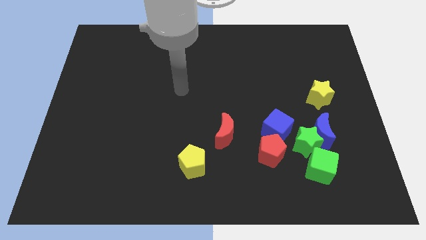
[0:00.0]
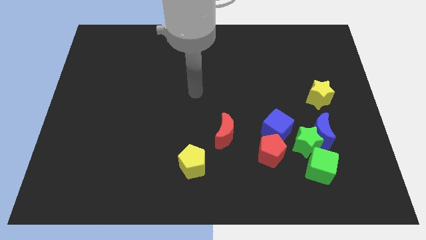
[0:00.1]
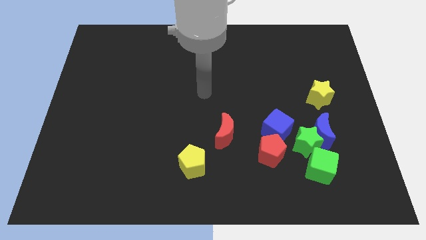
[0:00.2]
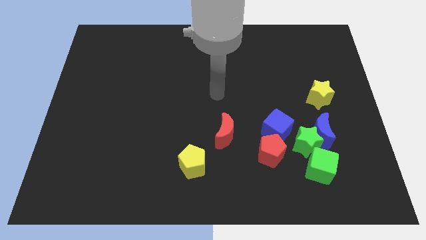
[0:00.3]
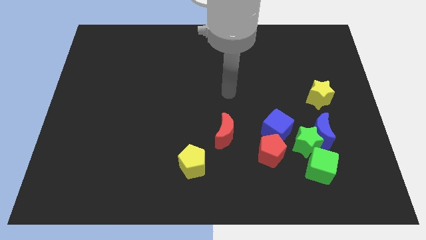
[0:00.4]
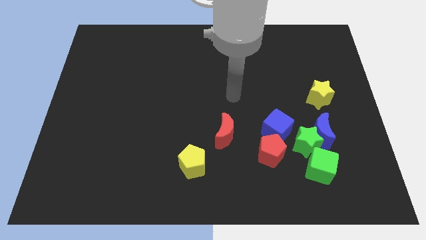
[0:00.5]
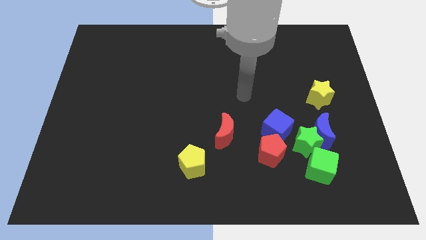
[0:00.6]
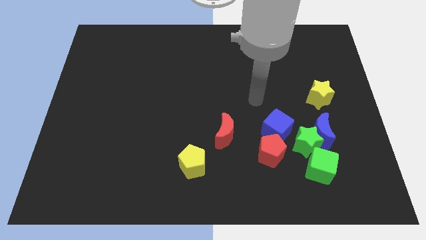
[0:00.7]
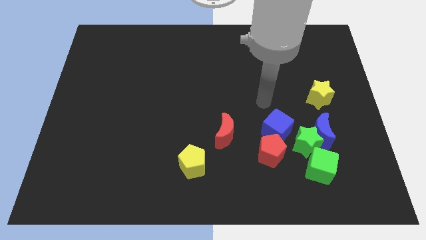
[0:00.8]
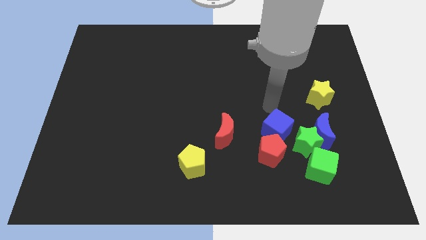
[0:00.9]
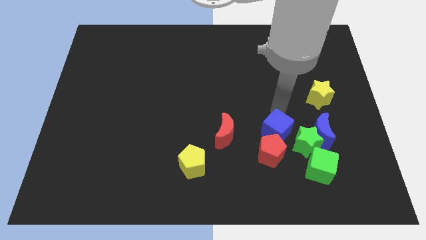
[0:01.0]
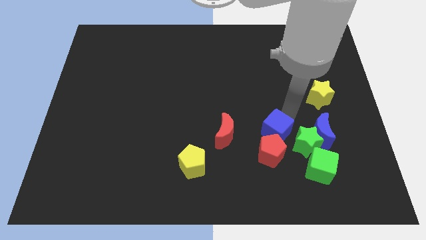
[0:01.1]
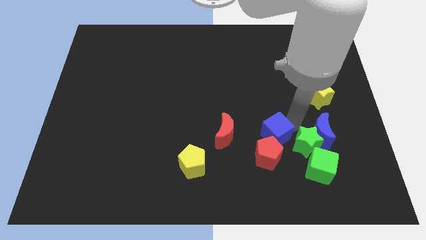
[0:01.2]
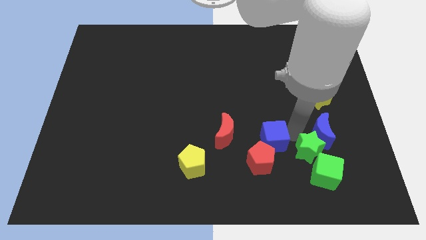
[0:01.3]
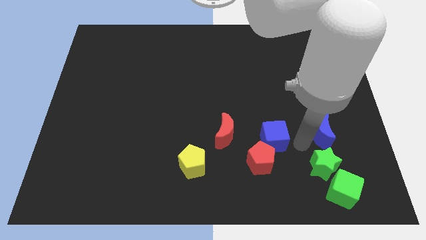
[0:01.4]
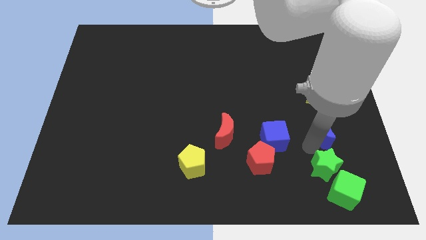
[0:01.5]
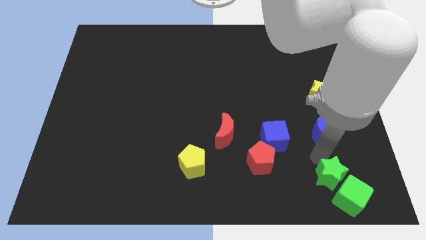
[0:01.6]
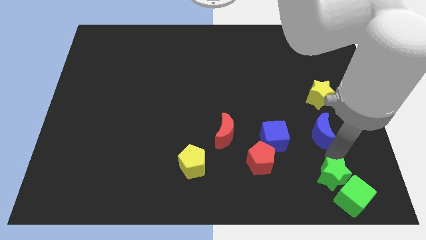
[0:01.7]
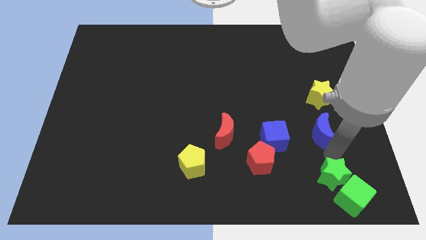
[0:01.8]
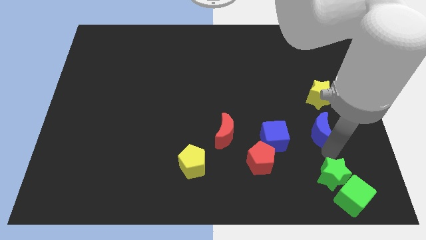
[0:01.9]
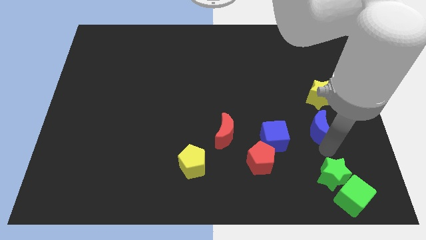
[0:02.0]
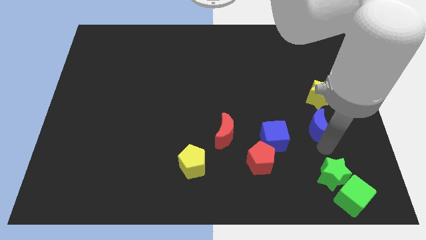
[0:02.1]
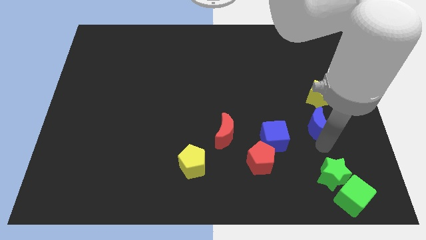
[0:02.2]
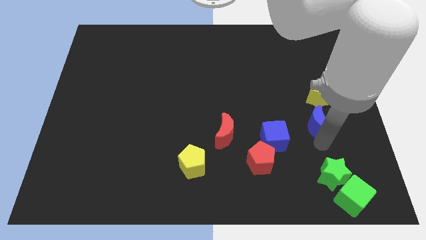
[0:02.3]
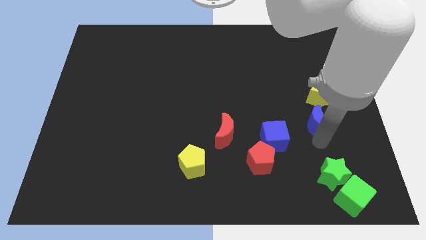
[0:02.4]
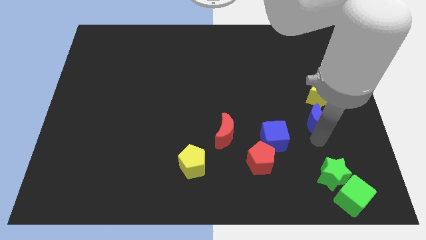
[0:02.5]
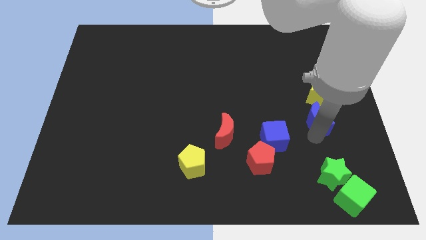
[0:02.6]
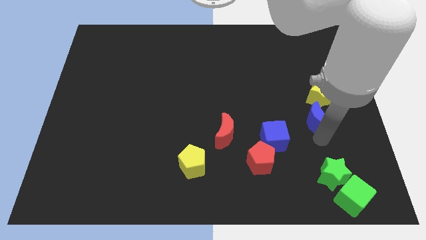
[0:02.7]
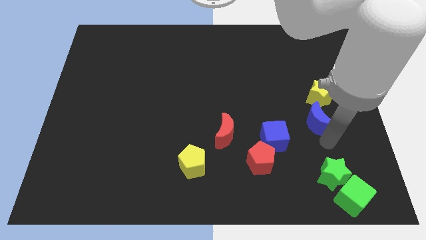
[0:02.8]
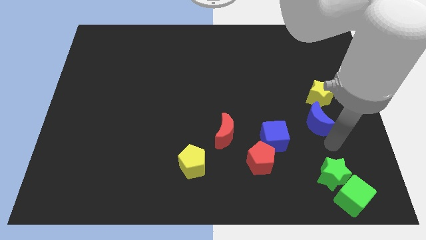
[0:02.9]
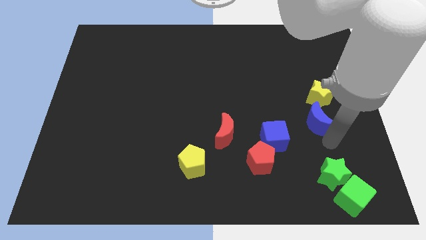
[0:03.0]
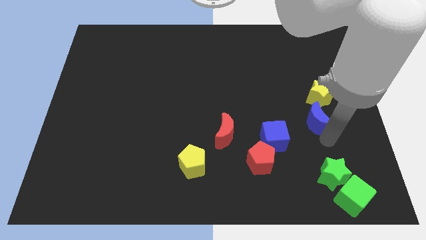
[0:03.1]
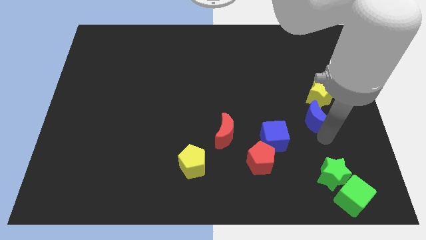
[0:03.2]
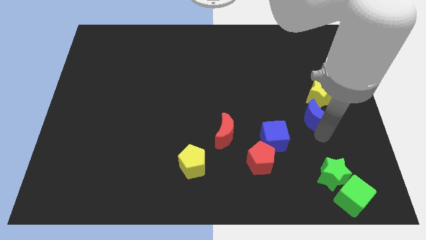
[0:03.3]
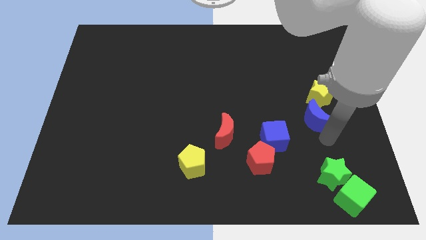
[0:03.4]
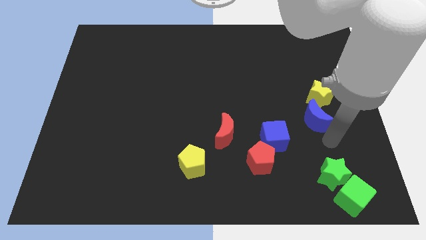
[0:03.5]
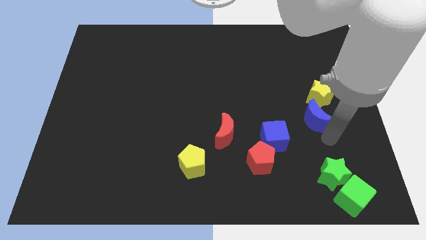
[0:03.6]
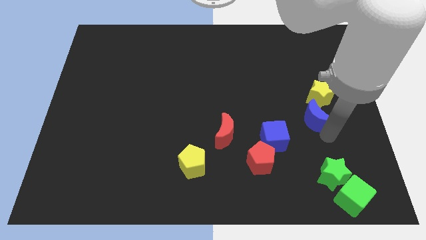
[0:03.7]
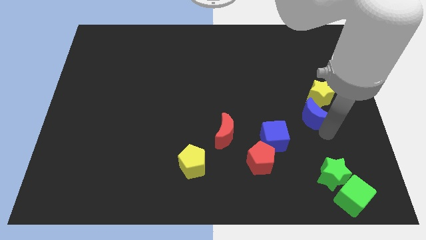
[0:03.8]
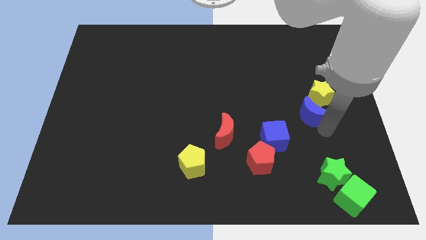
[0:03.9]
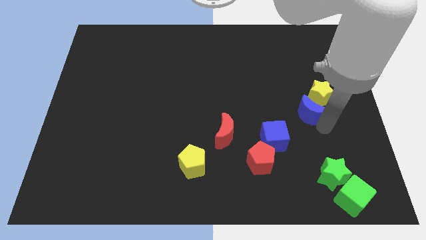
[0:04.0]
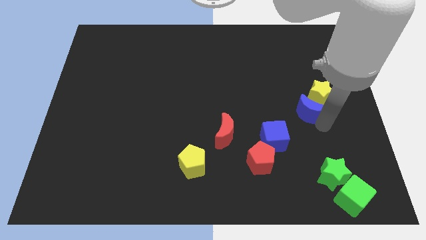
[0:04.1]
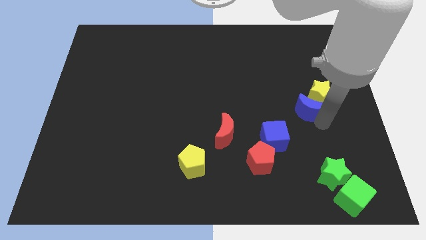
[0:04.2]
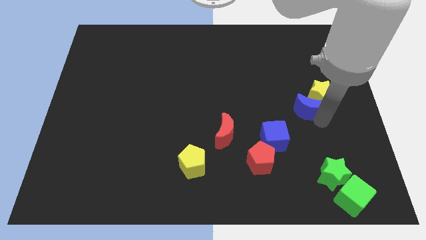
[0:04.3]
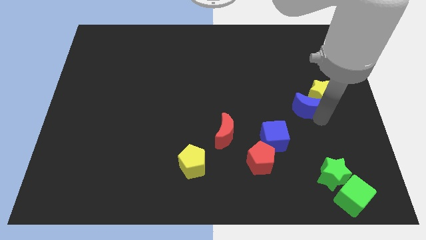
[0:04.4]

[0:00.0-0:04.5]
move the blue moon upwards somewhat

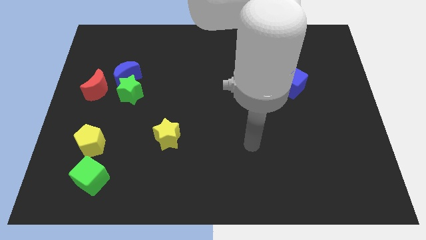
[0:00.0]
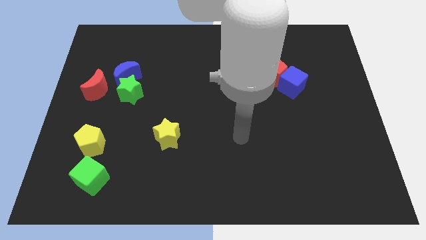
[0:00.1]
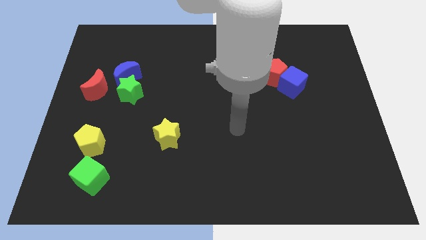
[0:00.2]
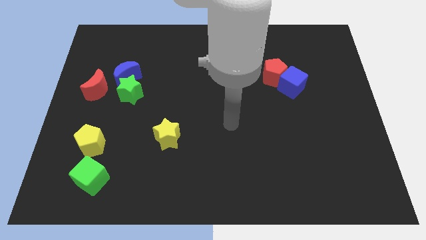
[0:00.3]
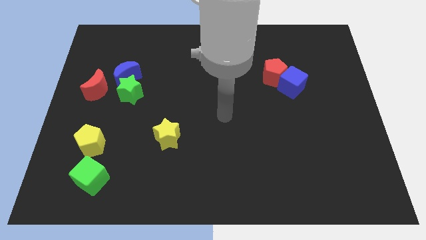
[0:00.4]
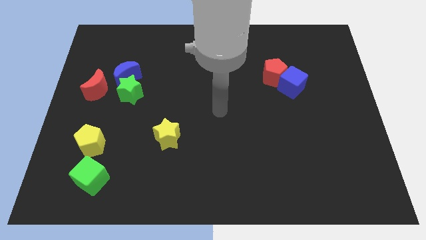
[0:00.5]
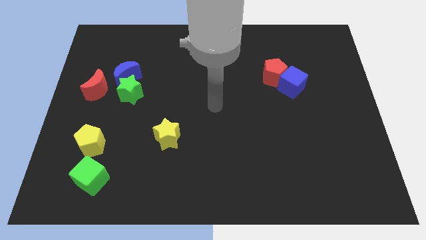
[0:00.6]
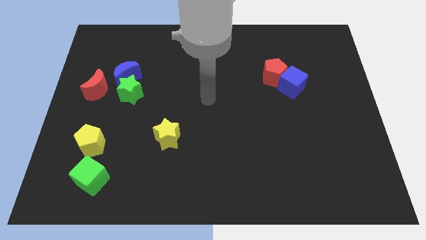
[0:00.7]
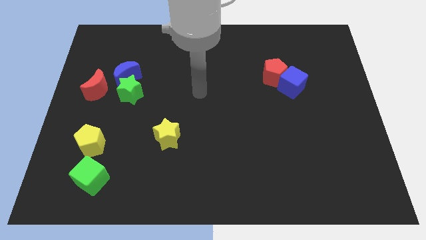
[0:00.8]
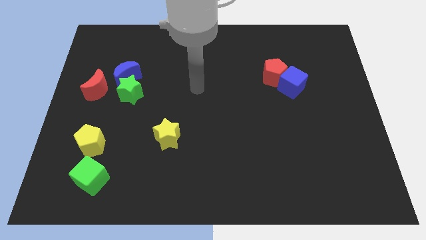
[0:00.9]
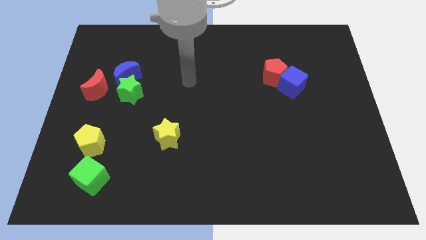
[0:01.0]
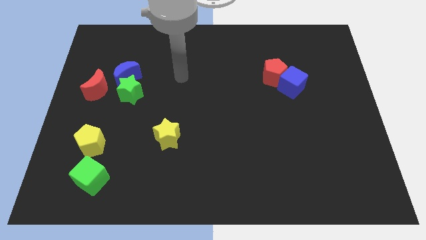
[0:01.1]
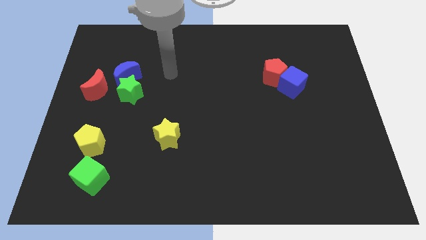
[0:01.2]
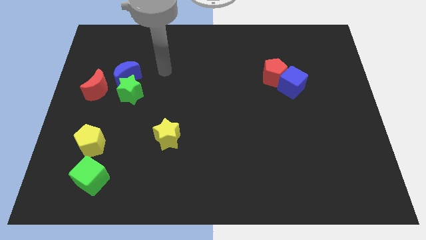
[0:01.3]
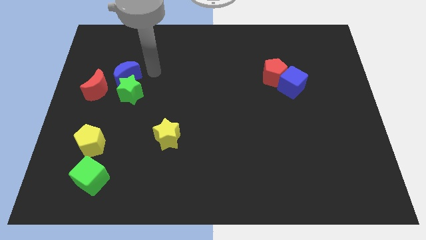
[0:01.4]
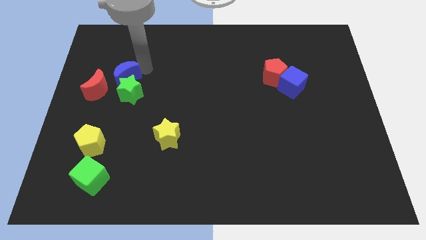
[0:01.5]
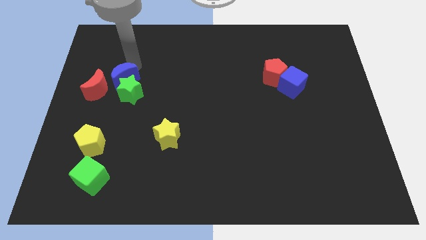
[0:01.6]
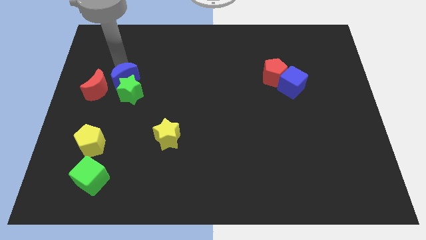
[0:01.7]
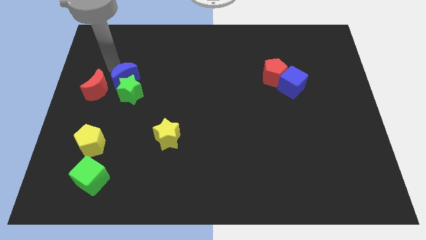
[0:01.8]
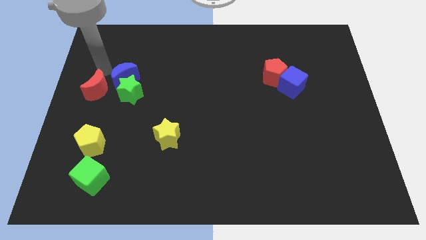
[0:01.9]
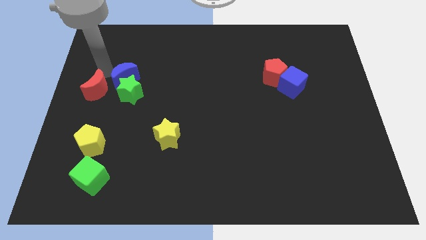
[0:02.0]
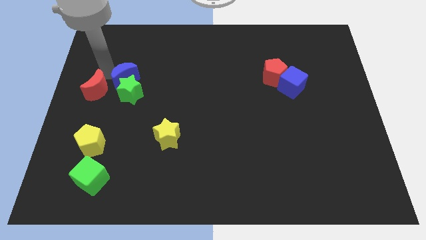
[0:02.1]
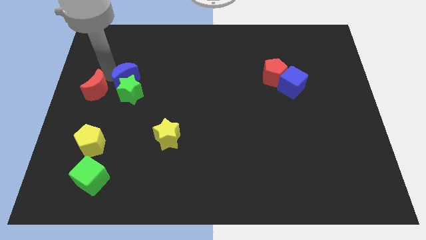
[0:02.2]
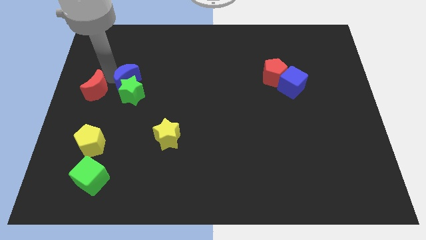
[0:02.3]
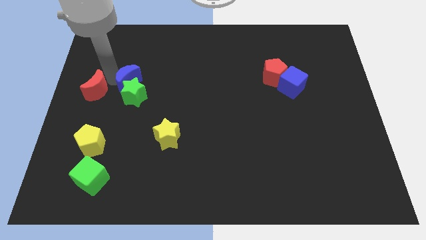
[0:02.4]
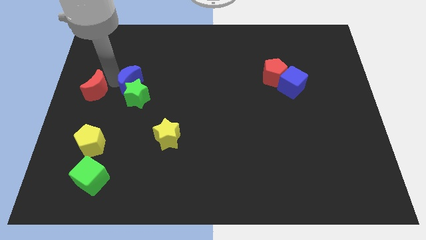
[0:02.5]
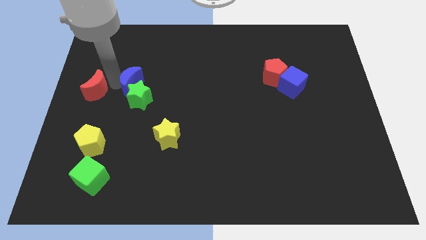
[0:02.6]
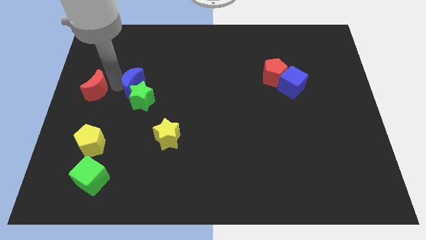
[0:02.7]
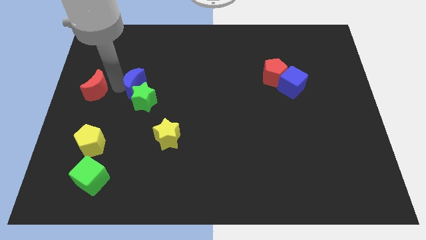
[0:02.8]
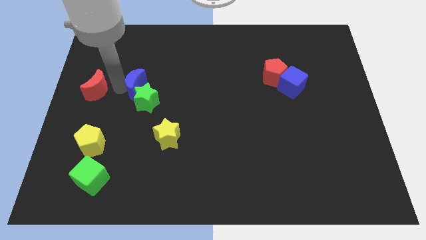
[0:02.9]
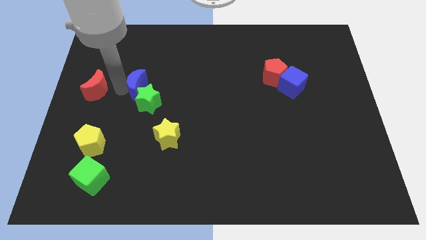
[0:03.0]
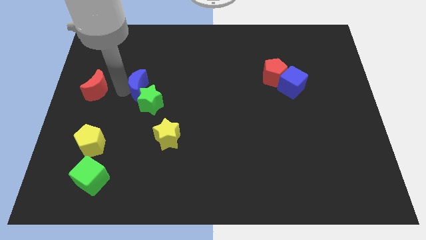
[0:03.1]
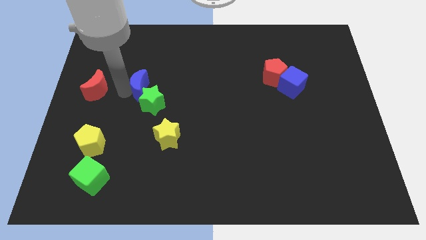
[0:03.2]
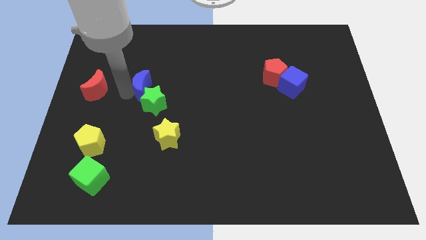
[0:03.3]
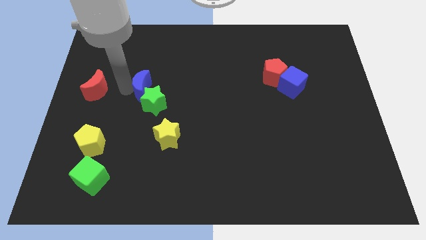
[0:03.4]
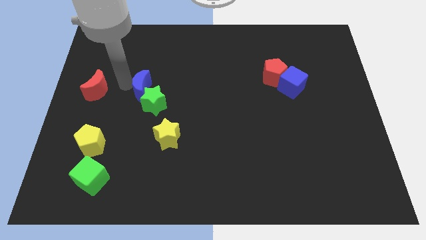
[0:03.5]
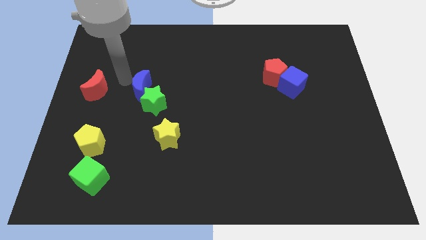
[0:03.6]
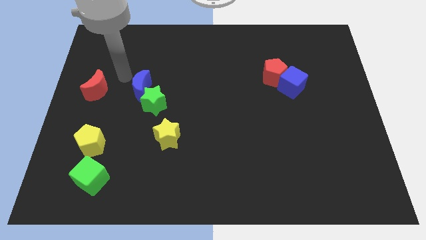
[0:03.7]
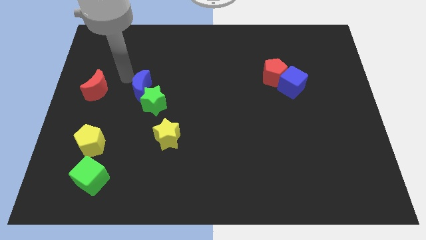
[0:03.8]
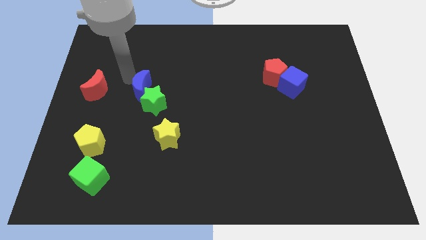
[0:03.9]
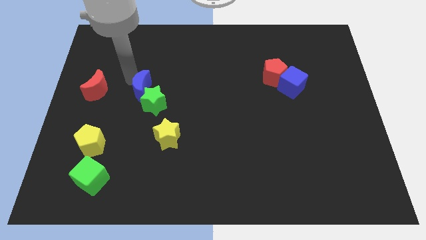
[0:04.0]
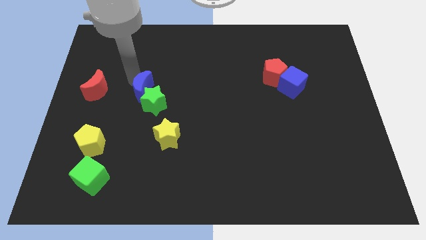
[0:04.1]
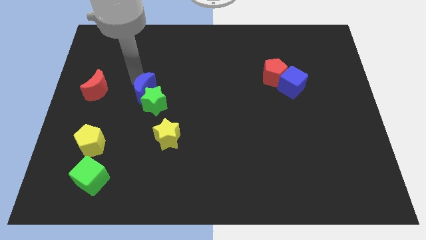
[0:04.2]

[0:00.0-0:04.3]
push the blue moon down and to the right a little
